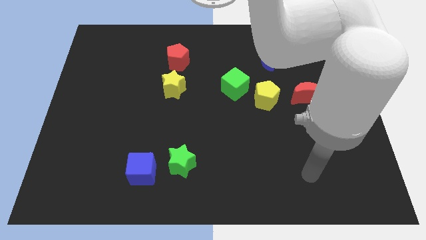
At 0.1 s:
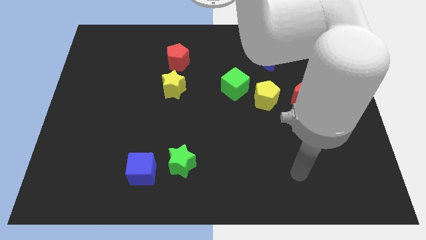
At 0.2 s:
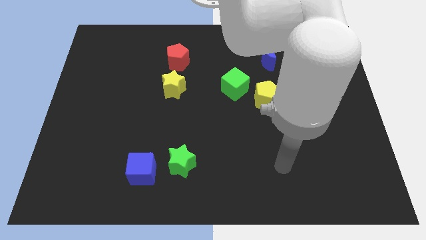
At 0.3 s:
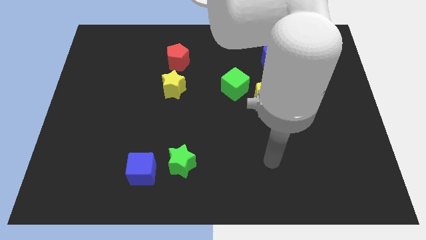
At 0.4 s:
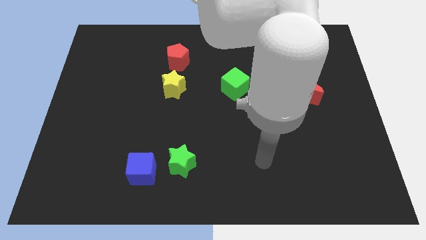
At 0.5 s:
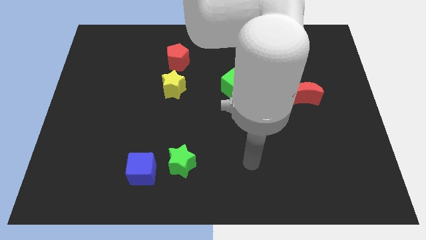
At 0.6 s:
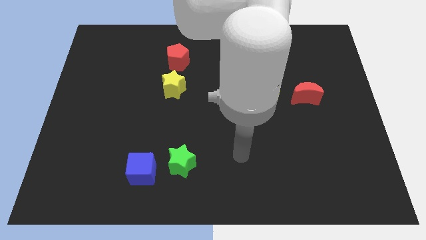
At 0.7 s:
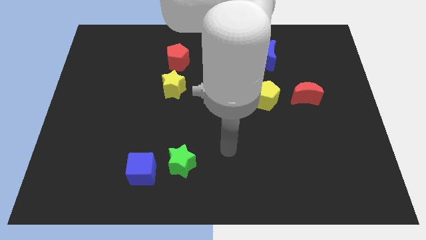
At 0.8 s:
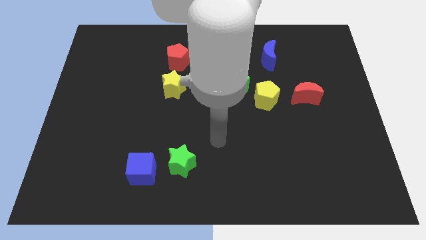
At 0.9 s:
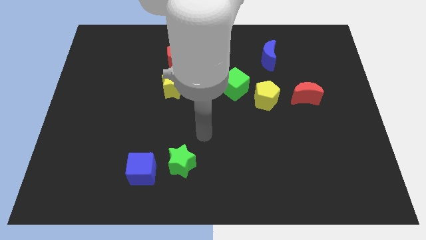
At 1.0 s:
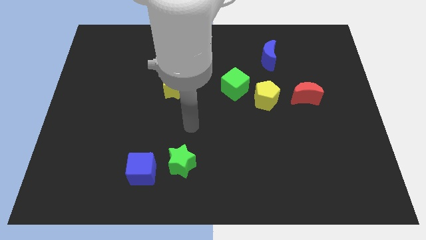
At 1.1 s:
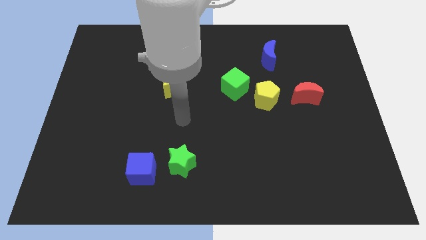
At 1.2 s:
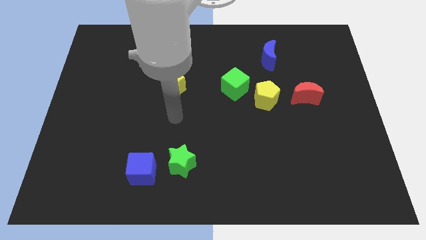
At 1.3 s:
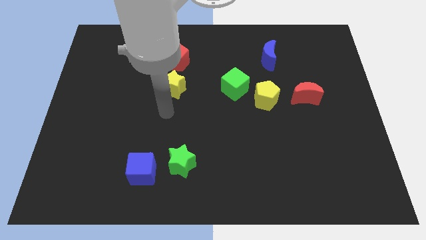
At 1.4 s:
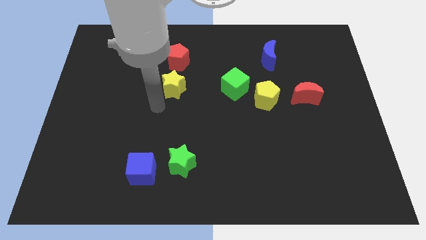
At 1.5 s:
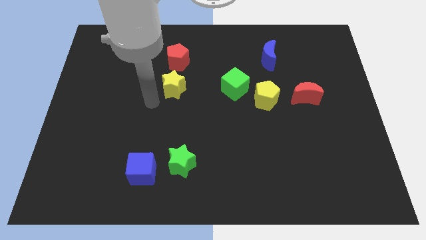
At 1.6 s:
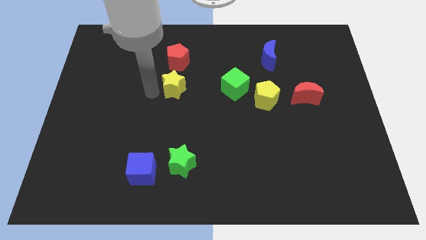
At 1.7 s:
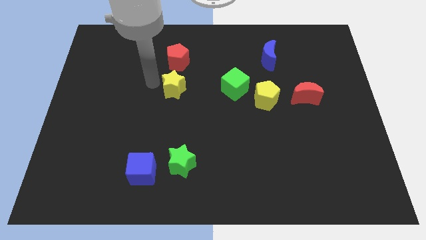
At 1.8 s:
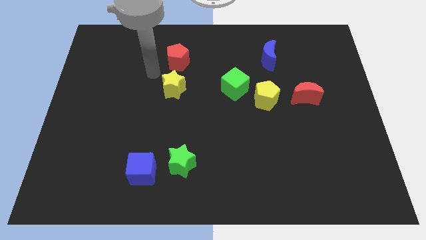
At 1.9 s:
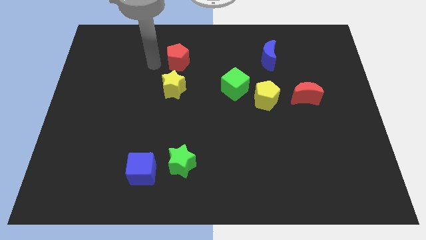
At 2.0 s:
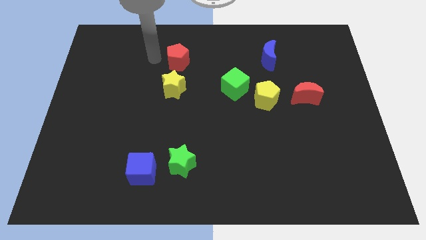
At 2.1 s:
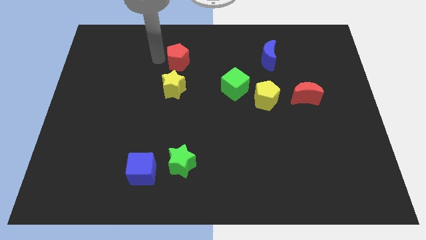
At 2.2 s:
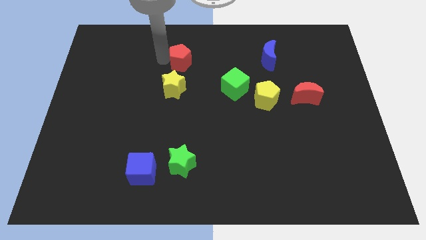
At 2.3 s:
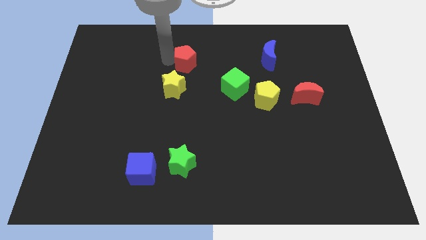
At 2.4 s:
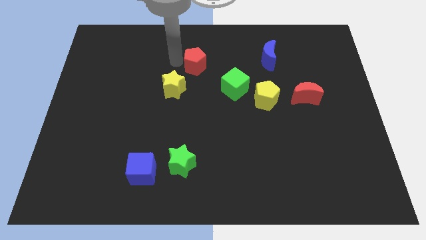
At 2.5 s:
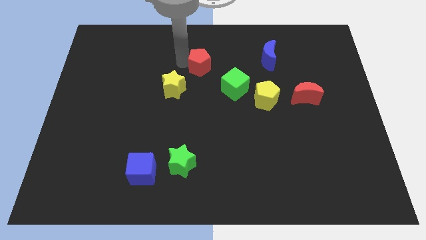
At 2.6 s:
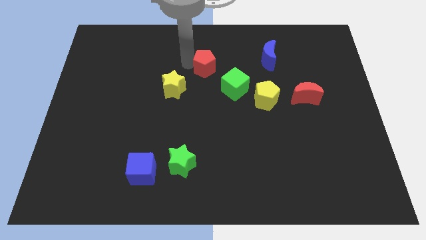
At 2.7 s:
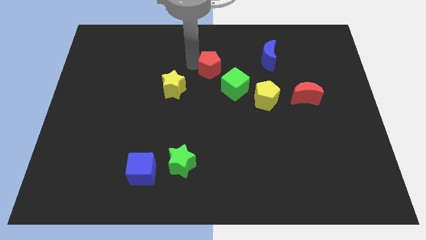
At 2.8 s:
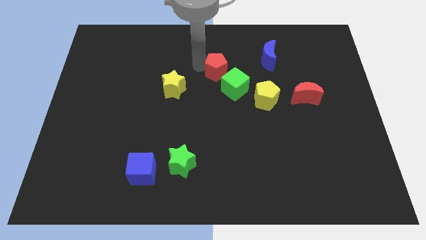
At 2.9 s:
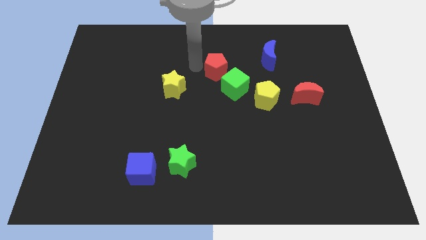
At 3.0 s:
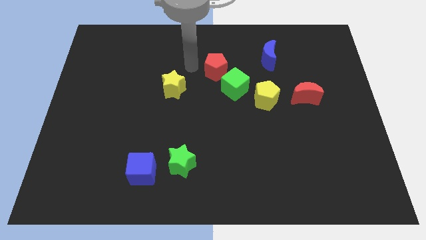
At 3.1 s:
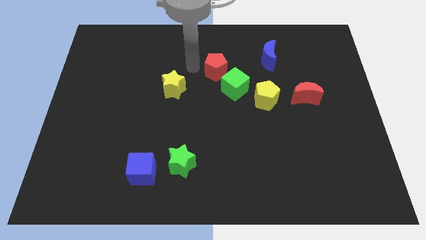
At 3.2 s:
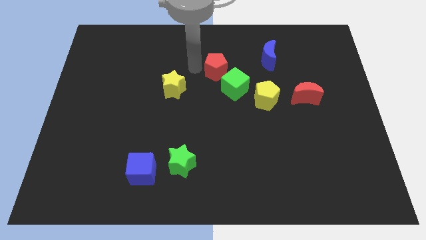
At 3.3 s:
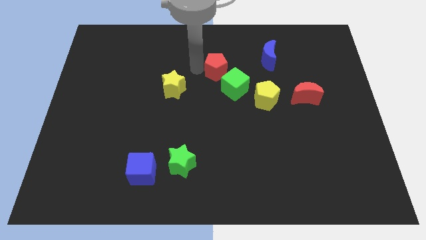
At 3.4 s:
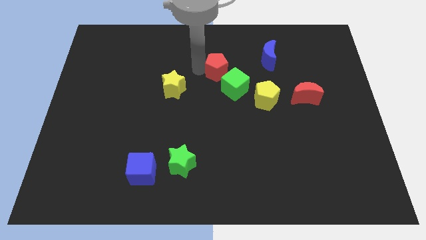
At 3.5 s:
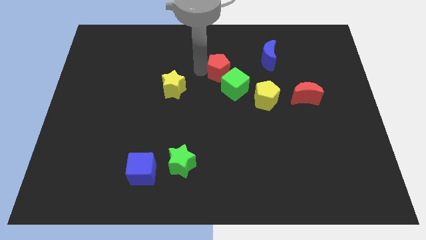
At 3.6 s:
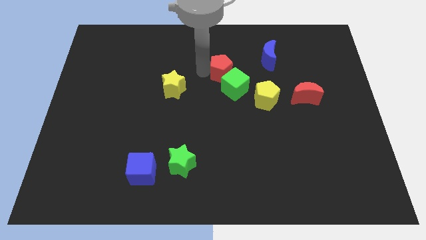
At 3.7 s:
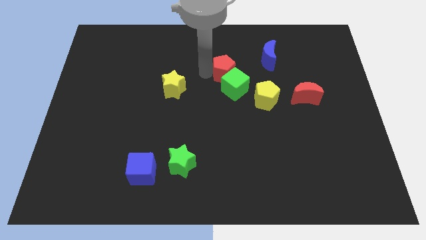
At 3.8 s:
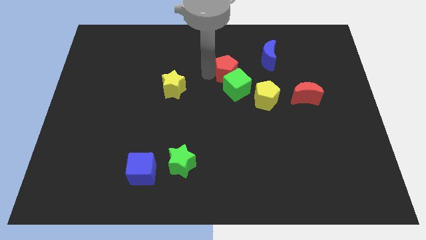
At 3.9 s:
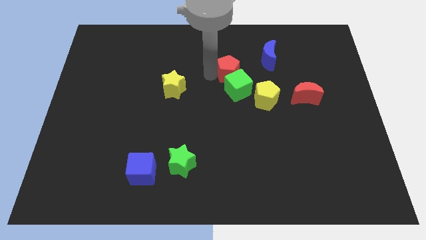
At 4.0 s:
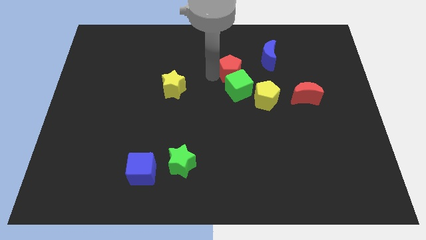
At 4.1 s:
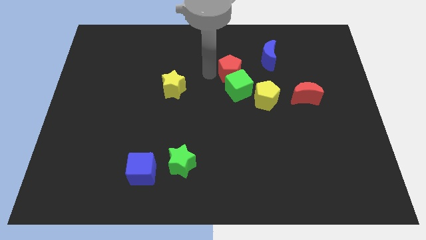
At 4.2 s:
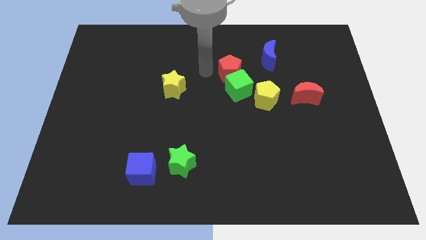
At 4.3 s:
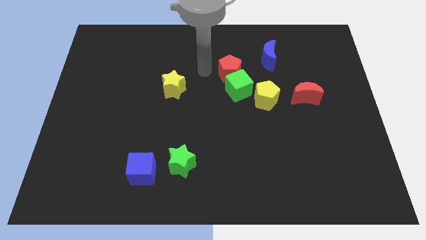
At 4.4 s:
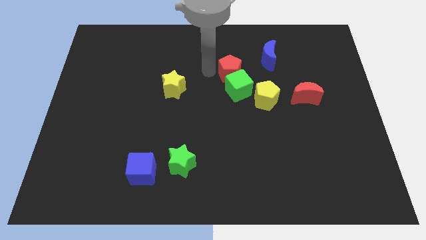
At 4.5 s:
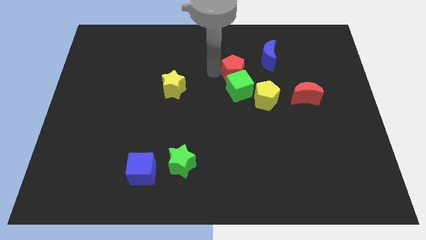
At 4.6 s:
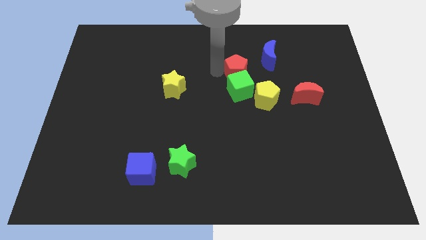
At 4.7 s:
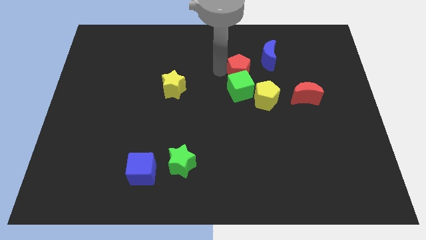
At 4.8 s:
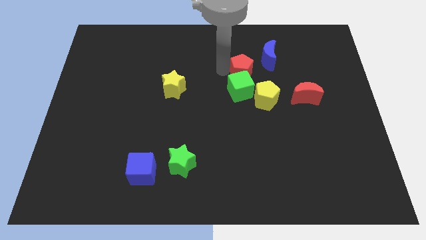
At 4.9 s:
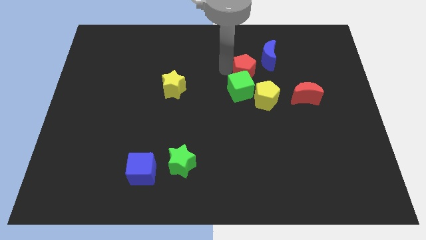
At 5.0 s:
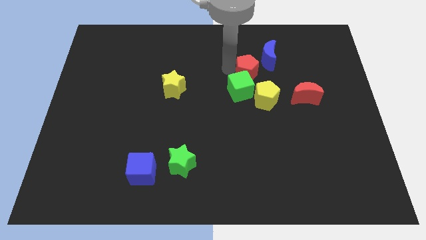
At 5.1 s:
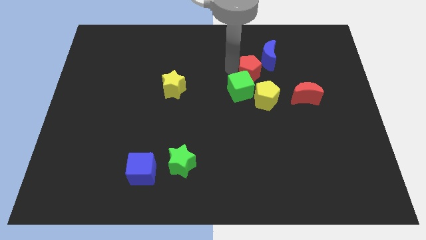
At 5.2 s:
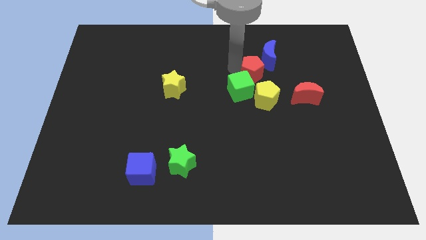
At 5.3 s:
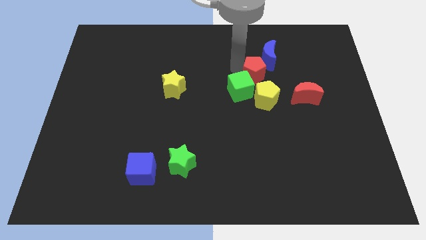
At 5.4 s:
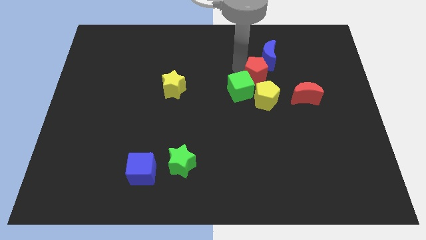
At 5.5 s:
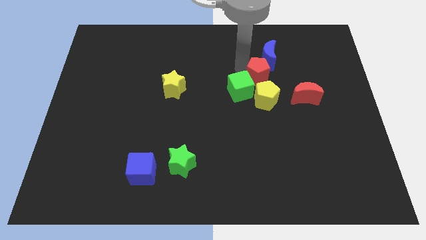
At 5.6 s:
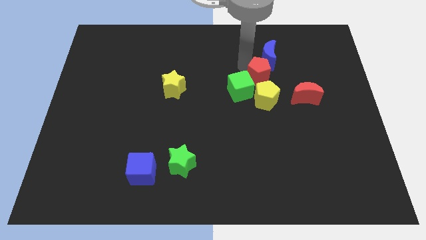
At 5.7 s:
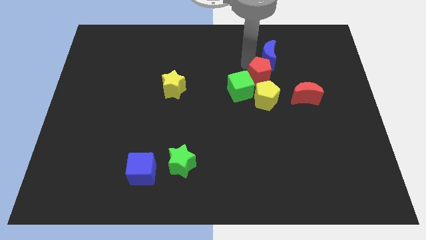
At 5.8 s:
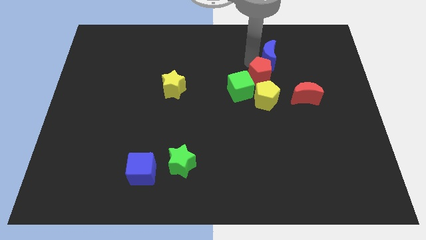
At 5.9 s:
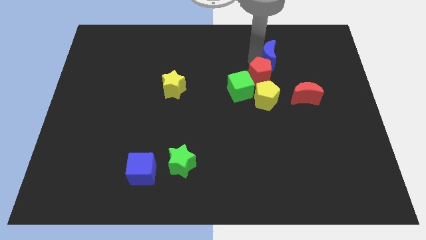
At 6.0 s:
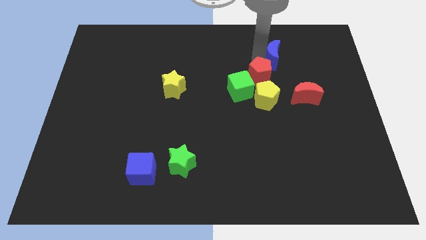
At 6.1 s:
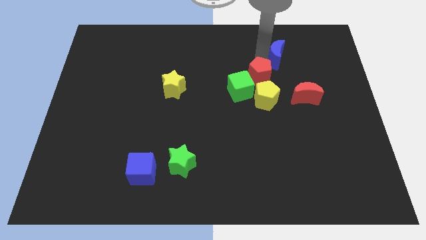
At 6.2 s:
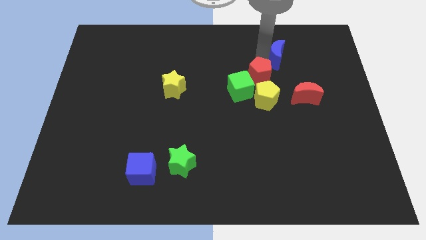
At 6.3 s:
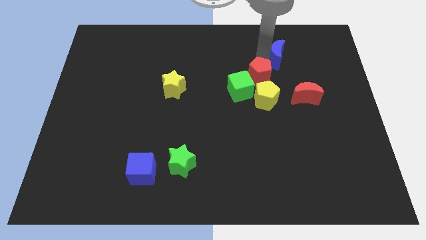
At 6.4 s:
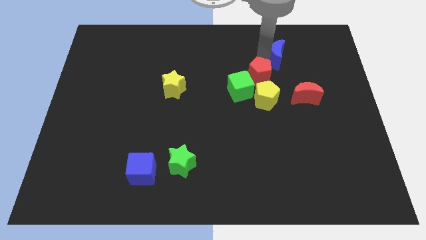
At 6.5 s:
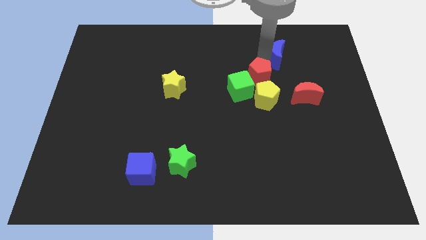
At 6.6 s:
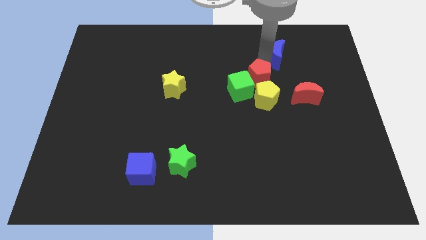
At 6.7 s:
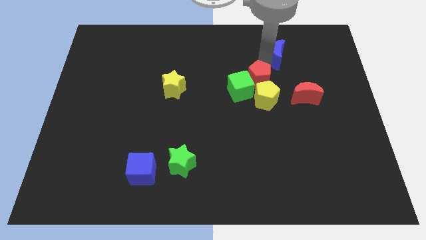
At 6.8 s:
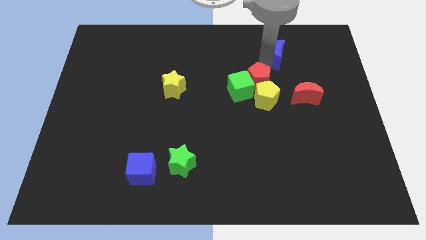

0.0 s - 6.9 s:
move the red pentagon to the yellow pentagon
